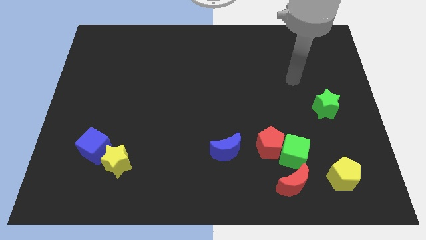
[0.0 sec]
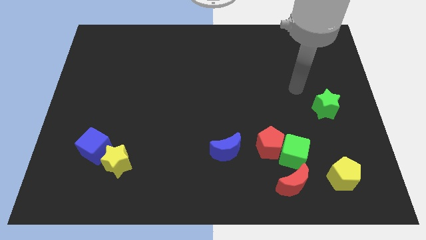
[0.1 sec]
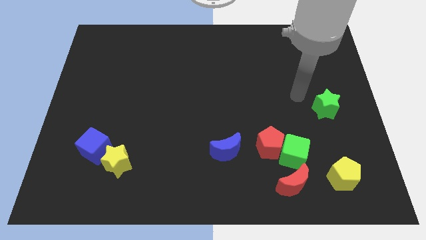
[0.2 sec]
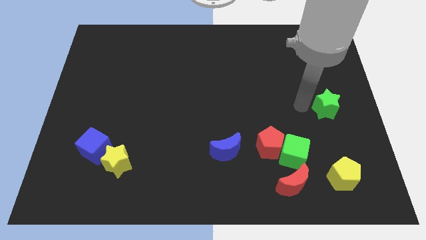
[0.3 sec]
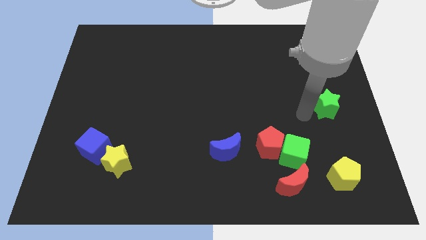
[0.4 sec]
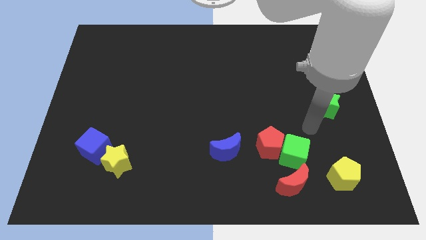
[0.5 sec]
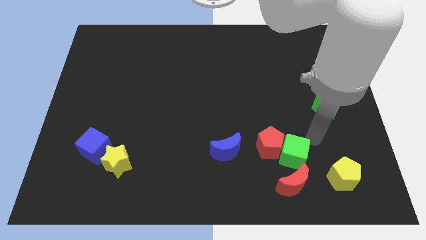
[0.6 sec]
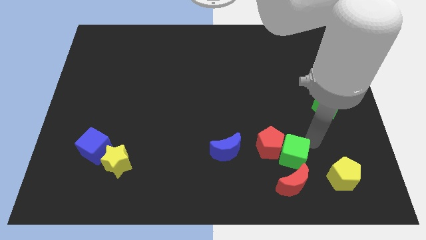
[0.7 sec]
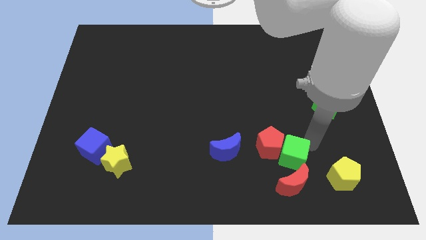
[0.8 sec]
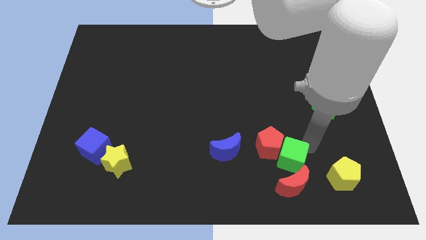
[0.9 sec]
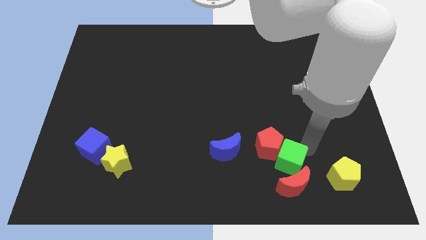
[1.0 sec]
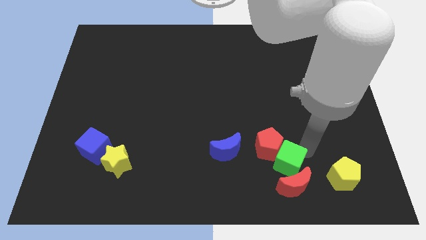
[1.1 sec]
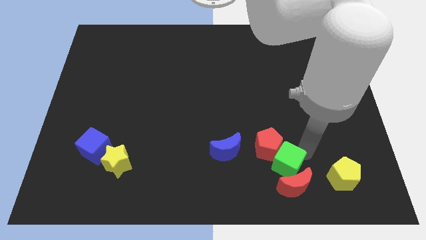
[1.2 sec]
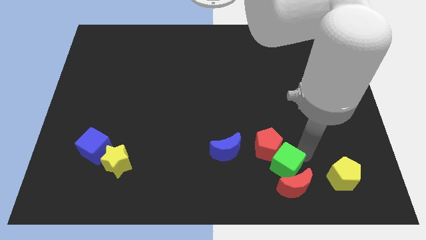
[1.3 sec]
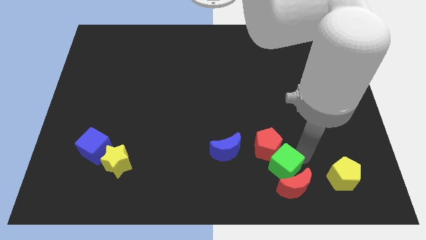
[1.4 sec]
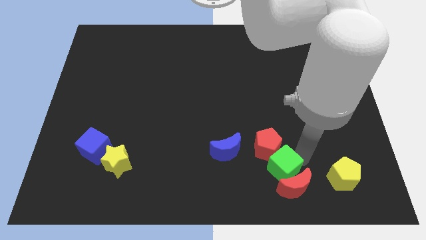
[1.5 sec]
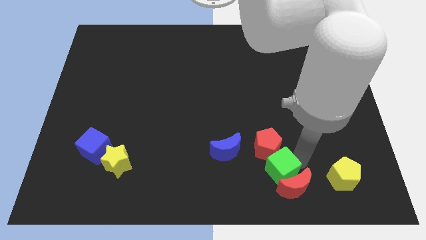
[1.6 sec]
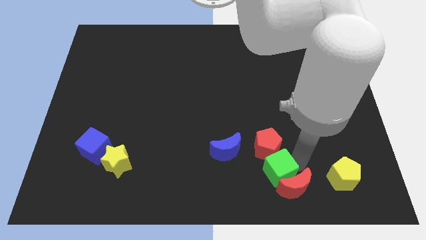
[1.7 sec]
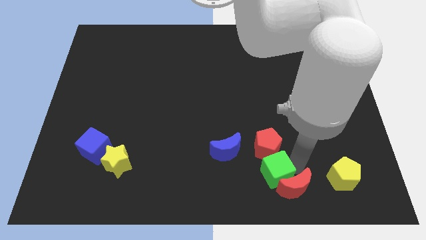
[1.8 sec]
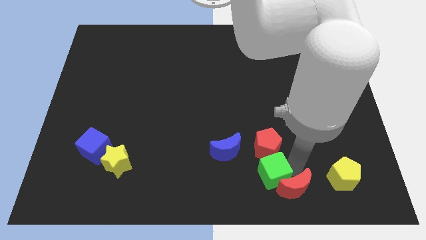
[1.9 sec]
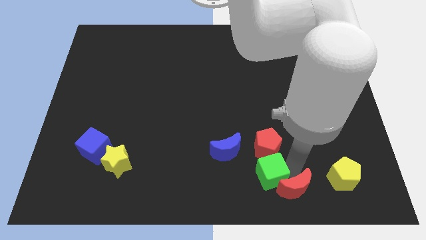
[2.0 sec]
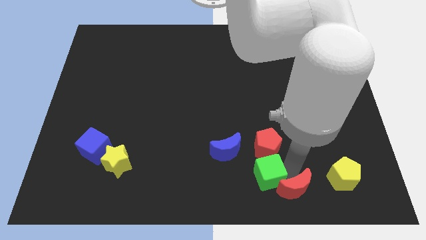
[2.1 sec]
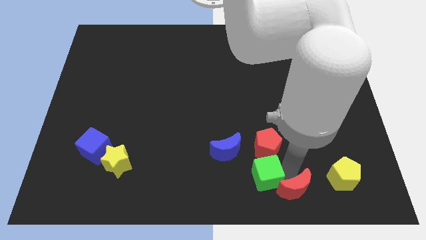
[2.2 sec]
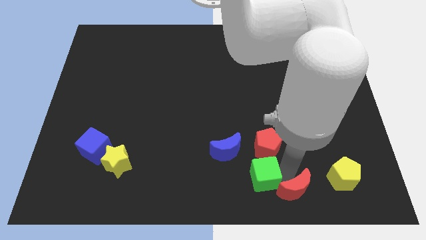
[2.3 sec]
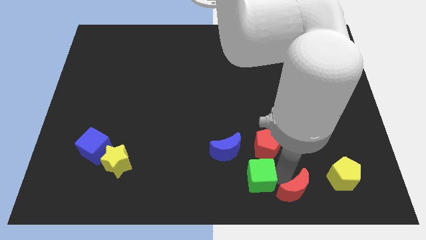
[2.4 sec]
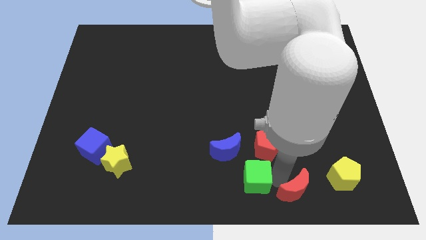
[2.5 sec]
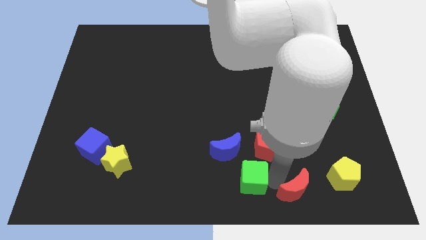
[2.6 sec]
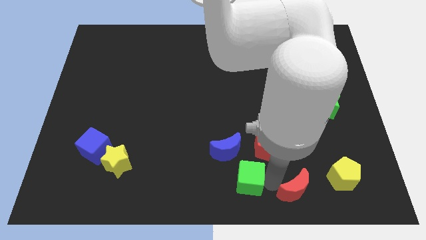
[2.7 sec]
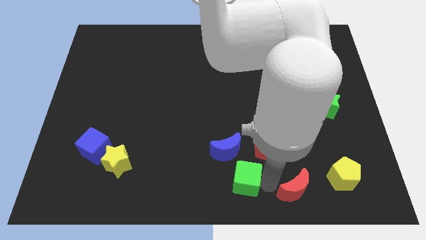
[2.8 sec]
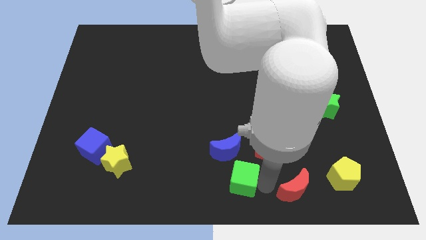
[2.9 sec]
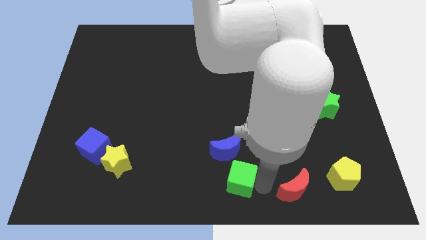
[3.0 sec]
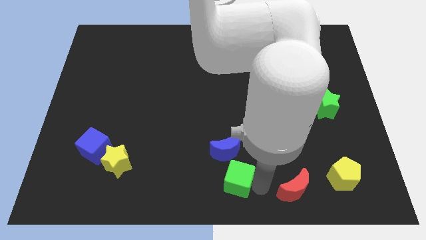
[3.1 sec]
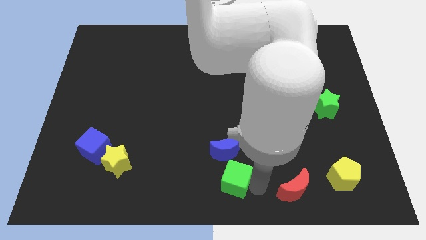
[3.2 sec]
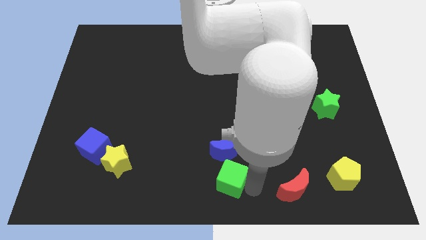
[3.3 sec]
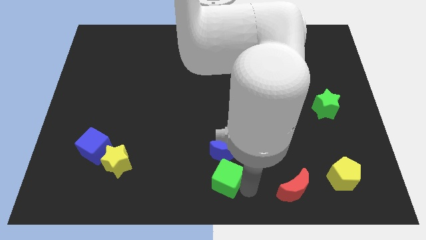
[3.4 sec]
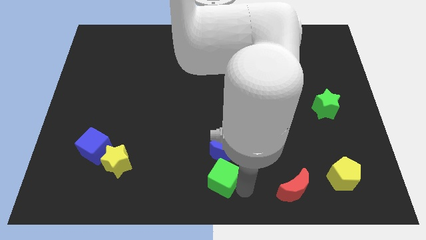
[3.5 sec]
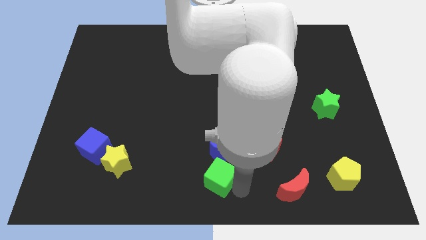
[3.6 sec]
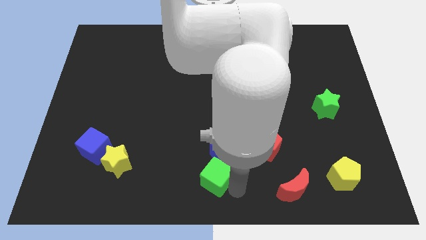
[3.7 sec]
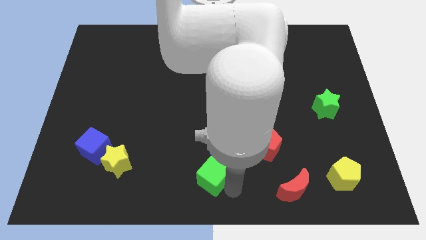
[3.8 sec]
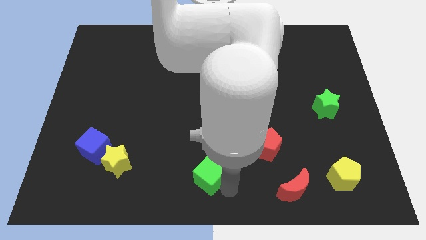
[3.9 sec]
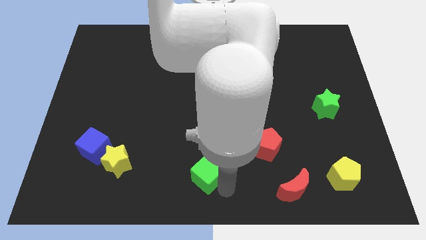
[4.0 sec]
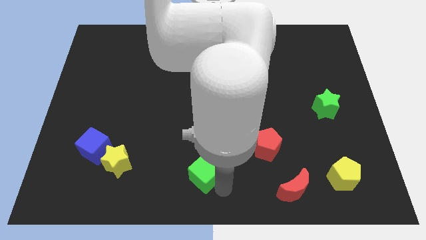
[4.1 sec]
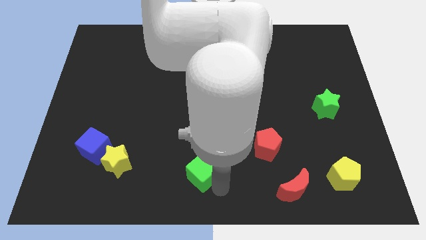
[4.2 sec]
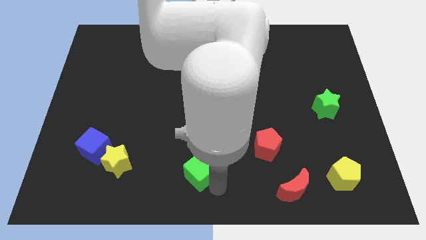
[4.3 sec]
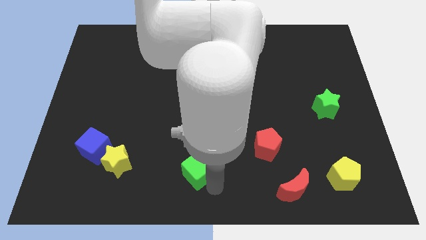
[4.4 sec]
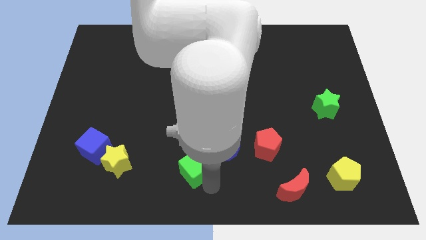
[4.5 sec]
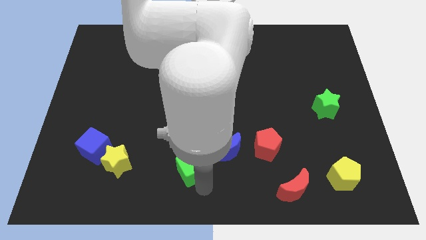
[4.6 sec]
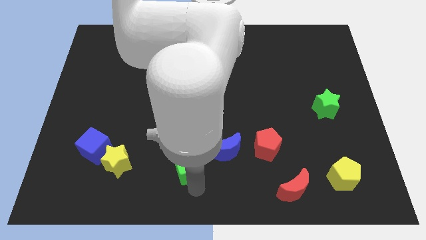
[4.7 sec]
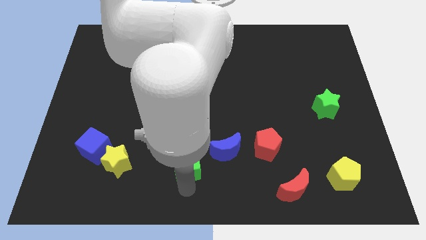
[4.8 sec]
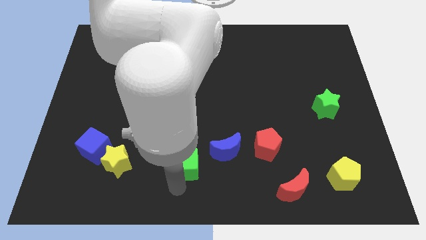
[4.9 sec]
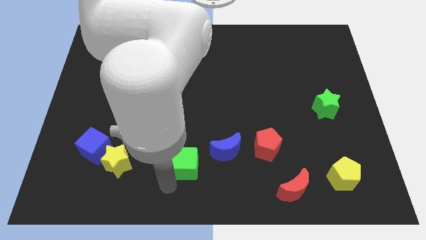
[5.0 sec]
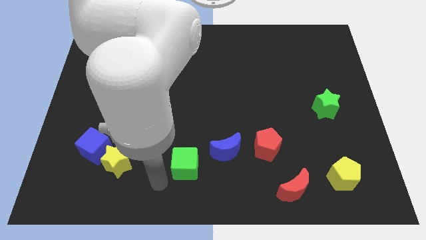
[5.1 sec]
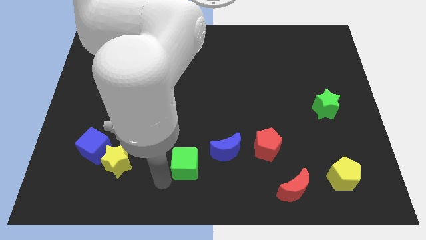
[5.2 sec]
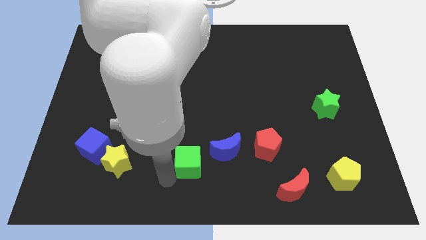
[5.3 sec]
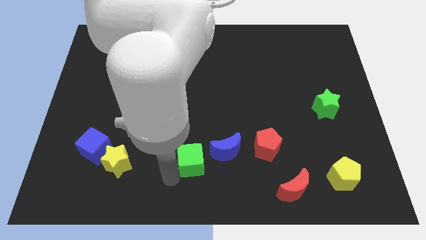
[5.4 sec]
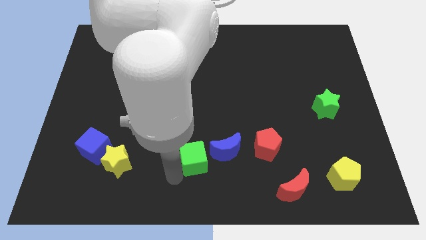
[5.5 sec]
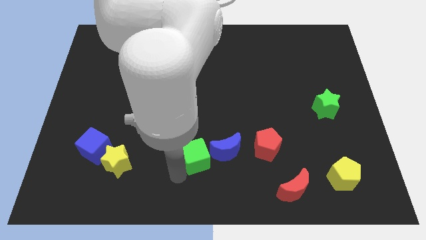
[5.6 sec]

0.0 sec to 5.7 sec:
move the green cube to the left side of the red pentagon

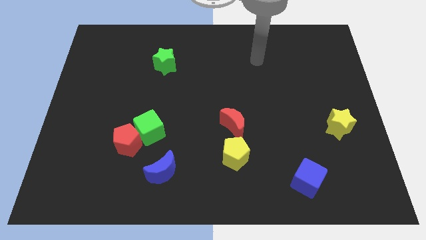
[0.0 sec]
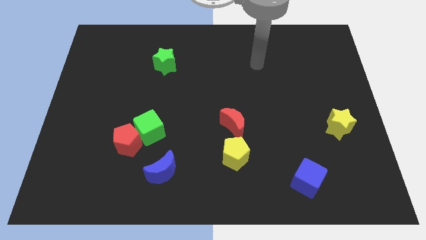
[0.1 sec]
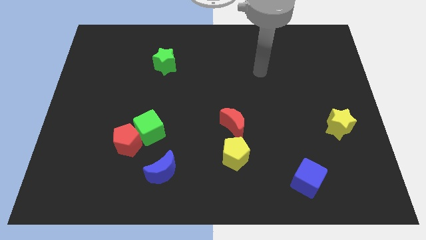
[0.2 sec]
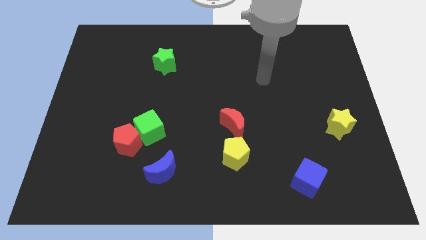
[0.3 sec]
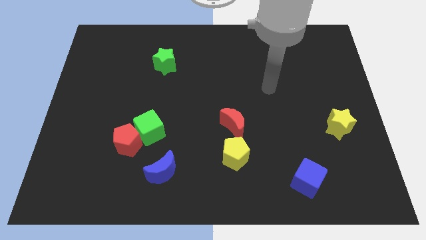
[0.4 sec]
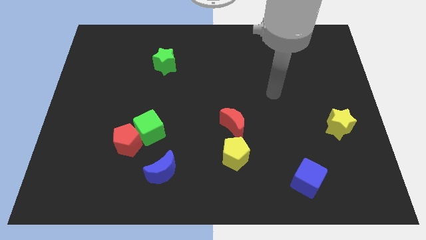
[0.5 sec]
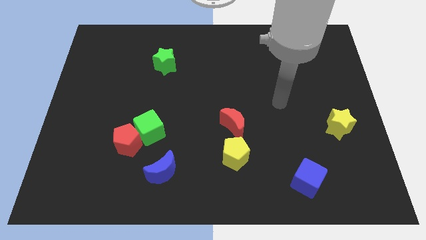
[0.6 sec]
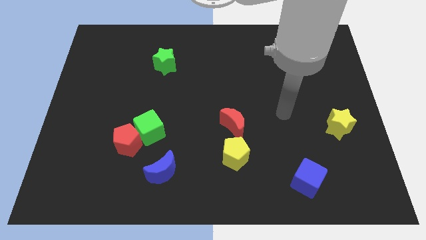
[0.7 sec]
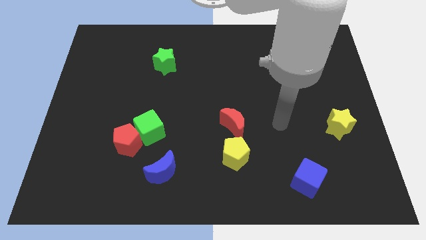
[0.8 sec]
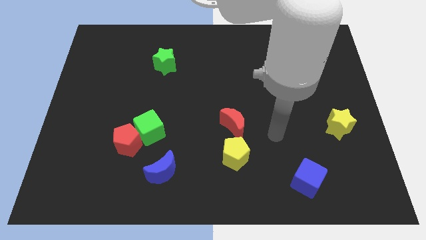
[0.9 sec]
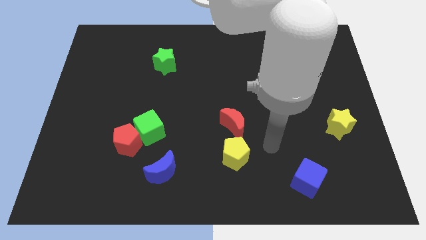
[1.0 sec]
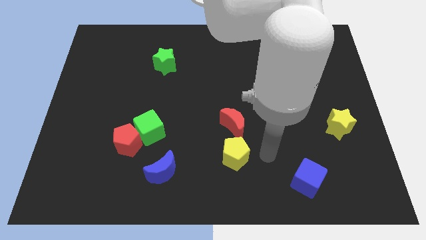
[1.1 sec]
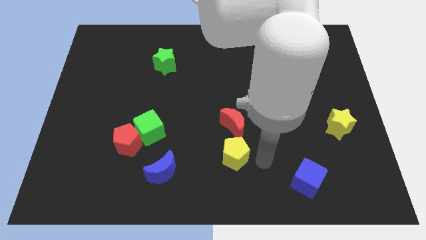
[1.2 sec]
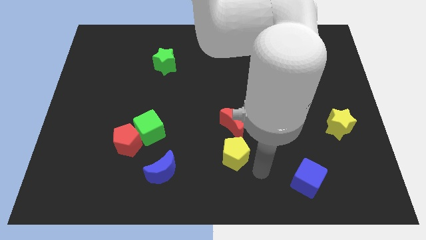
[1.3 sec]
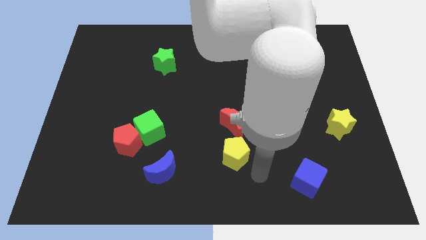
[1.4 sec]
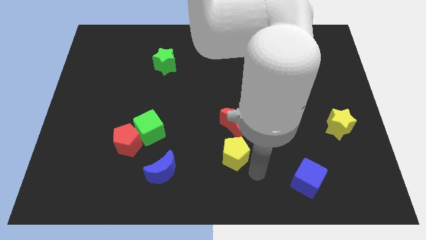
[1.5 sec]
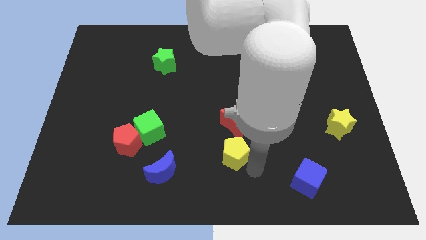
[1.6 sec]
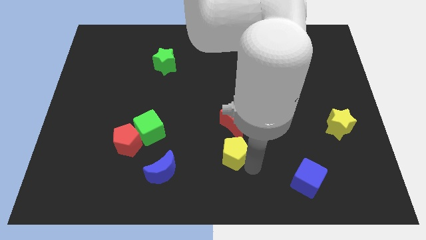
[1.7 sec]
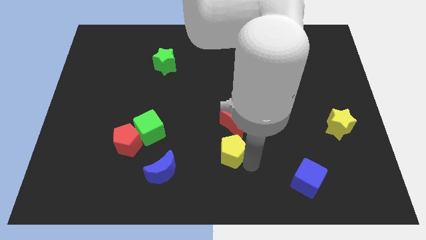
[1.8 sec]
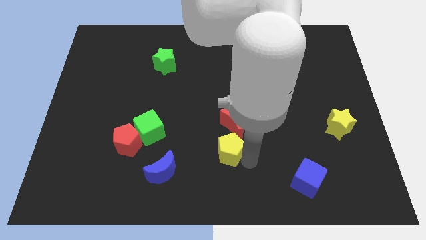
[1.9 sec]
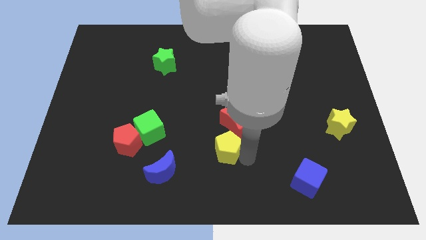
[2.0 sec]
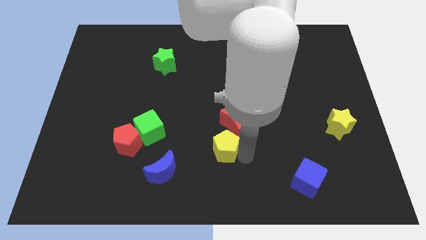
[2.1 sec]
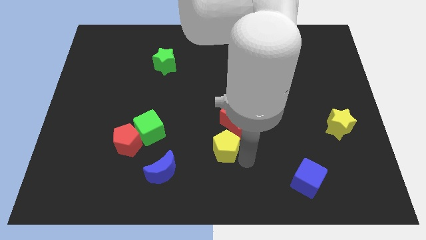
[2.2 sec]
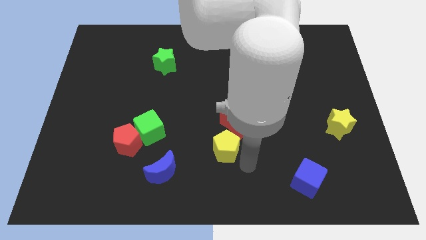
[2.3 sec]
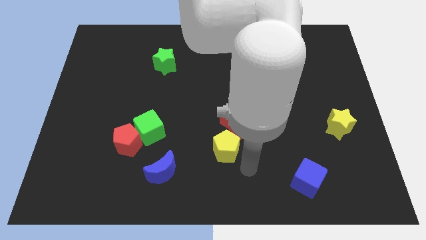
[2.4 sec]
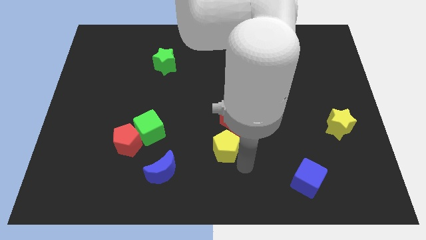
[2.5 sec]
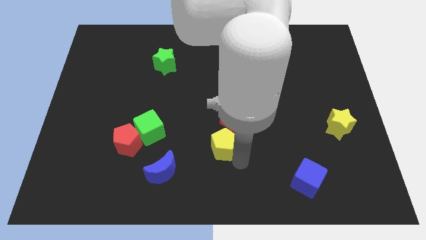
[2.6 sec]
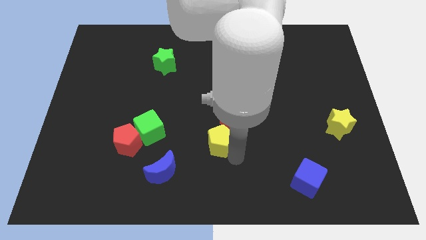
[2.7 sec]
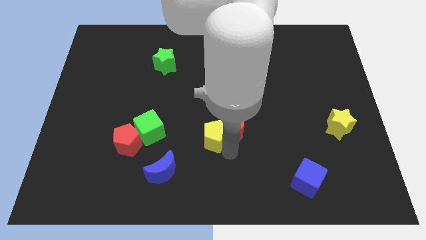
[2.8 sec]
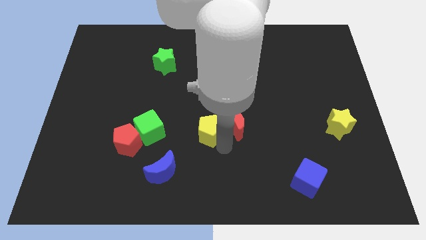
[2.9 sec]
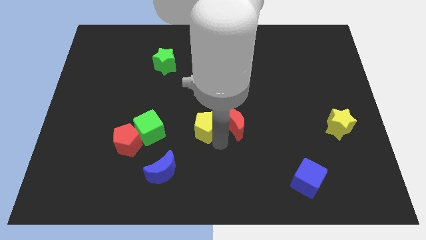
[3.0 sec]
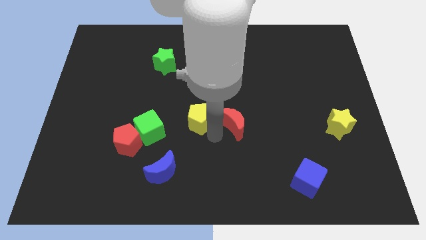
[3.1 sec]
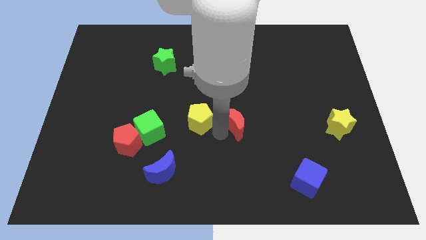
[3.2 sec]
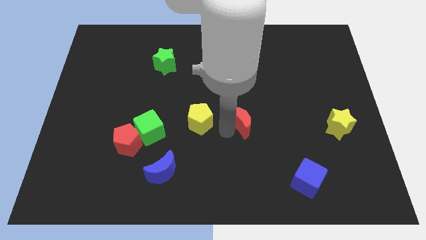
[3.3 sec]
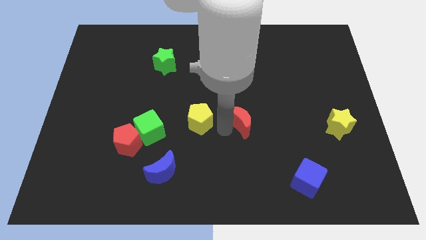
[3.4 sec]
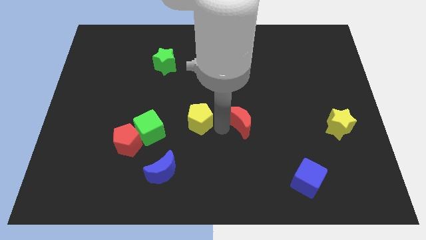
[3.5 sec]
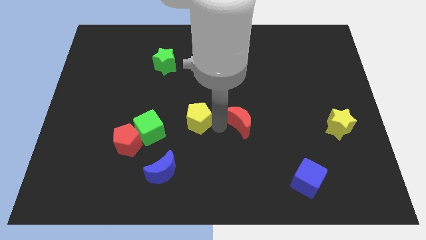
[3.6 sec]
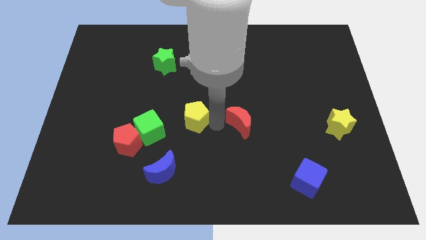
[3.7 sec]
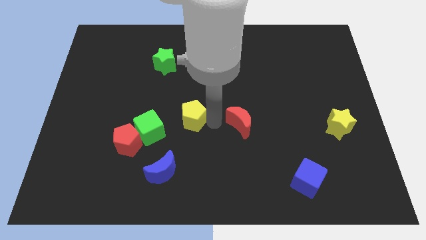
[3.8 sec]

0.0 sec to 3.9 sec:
move the yellow pentagon diagonally up and to the right of the green cube
